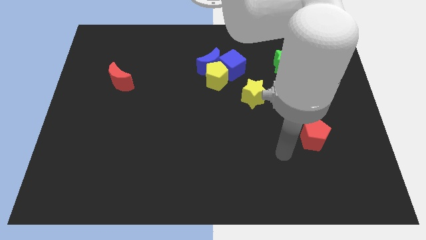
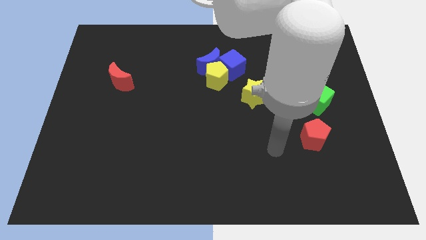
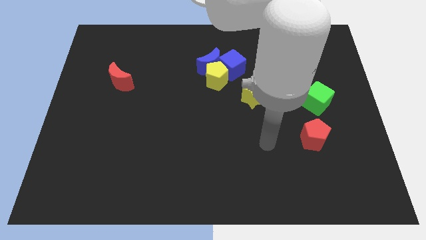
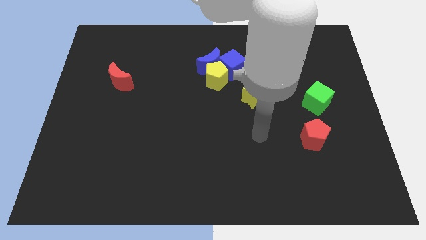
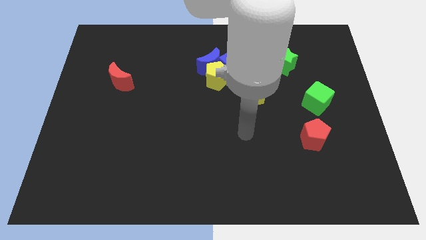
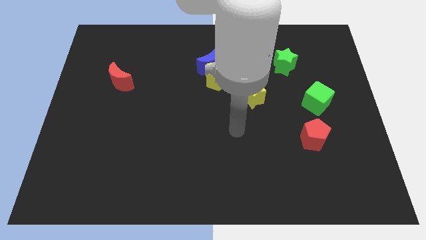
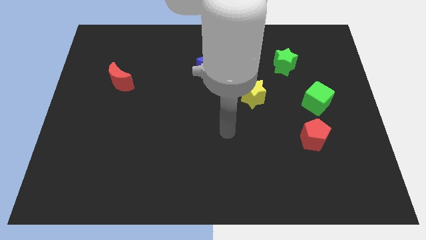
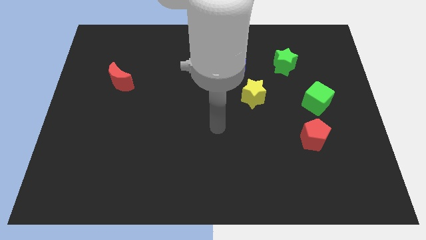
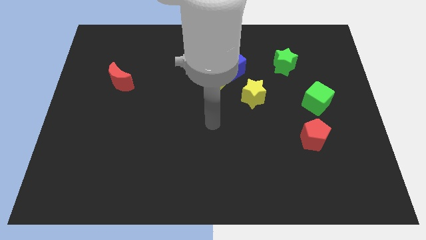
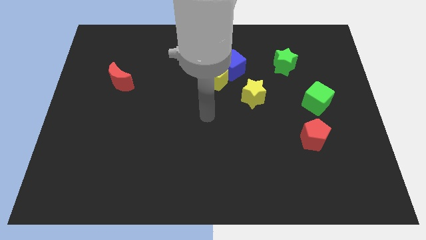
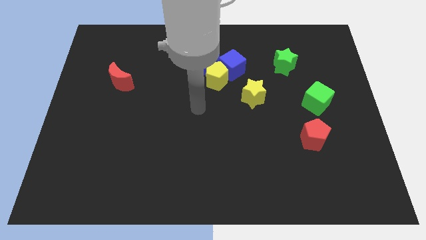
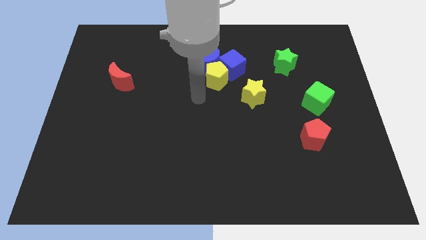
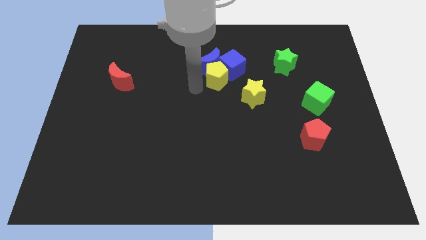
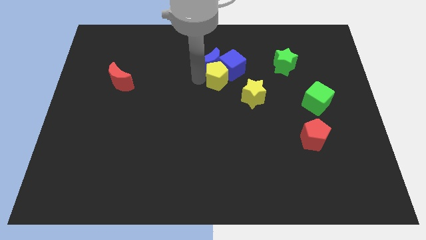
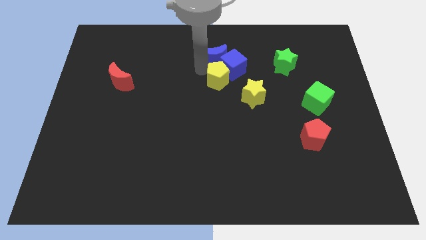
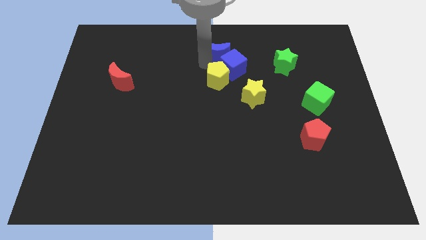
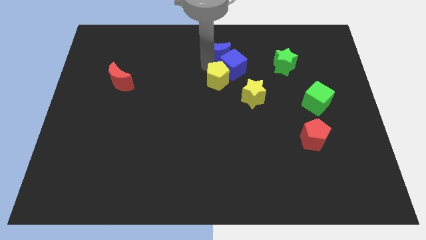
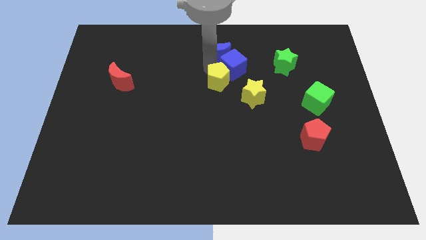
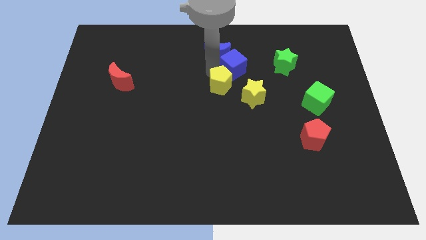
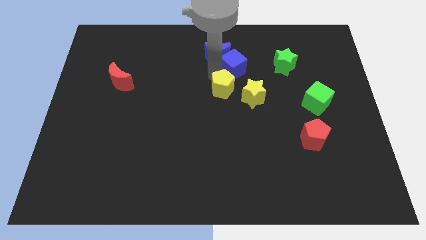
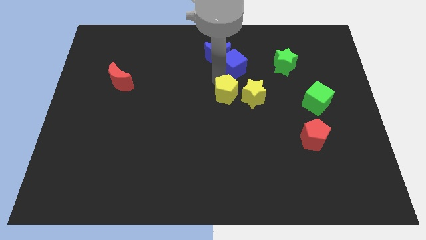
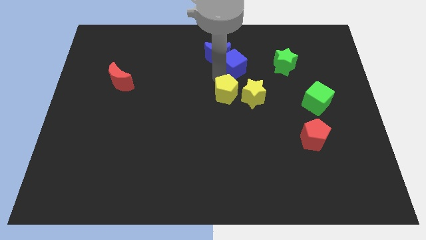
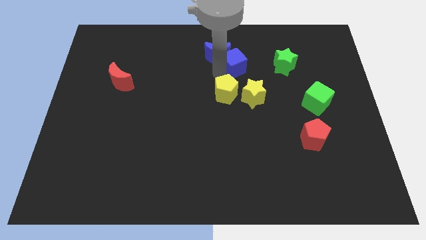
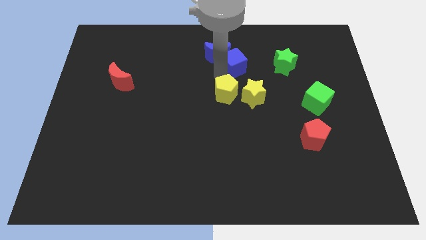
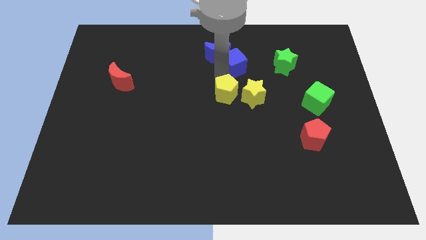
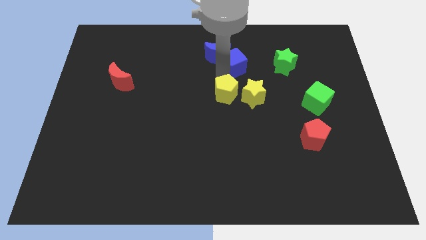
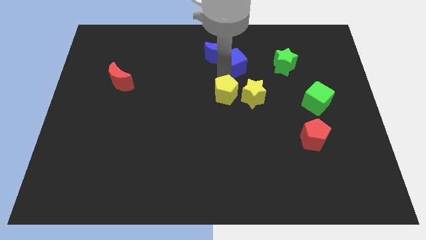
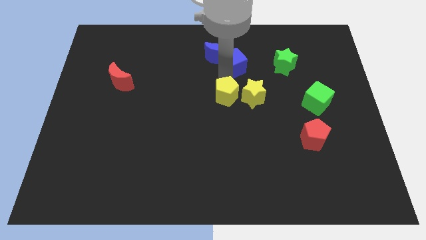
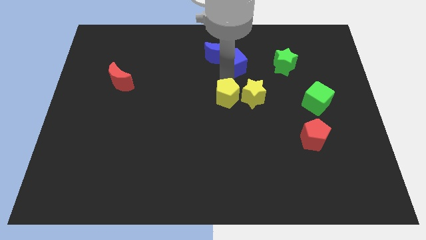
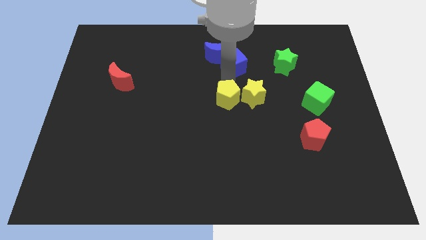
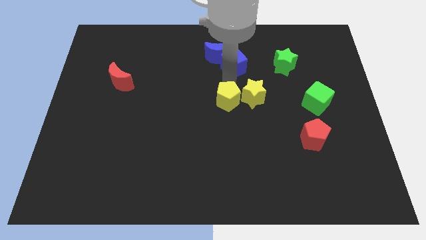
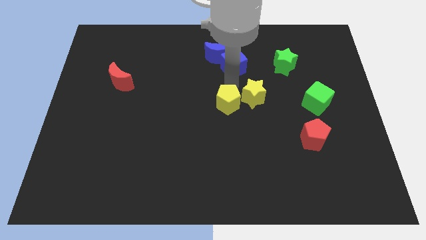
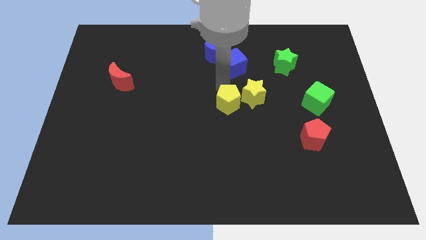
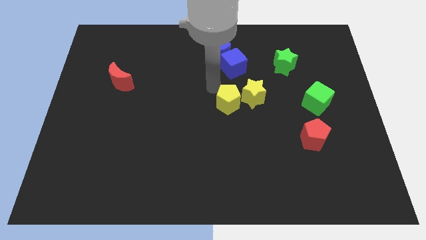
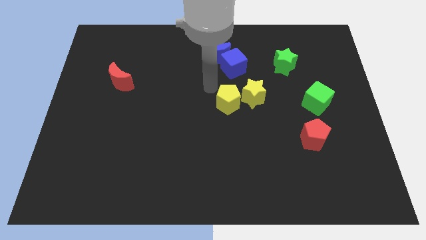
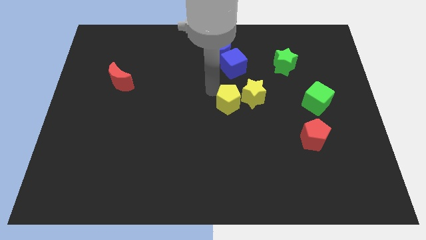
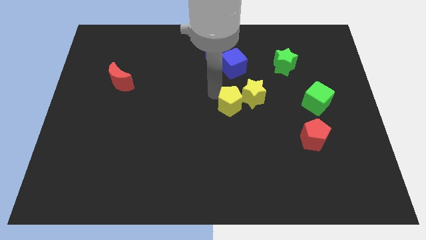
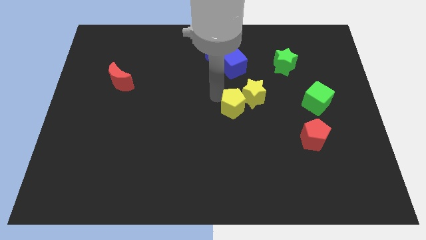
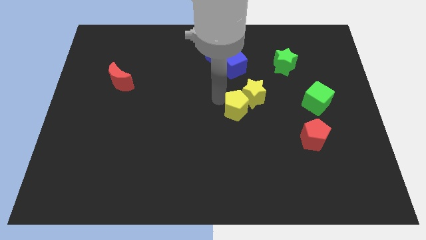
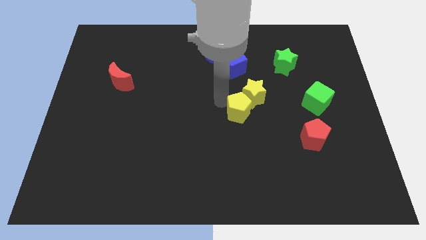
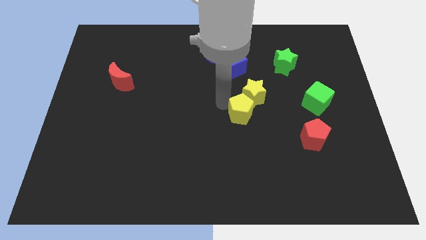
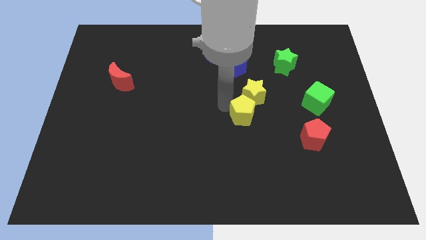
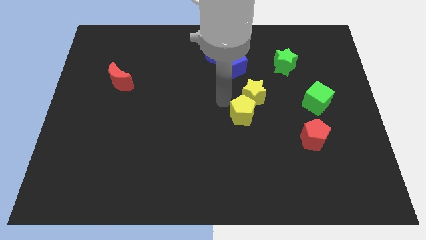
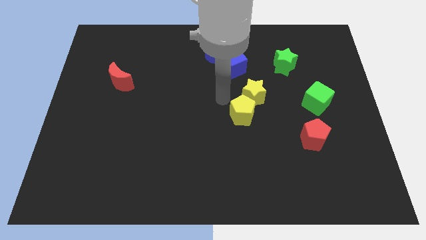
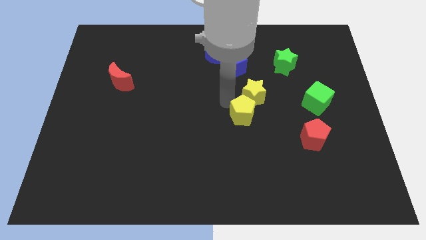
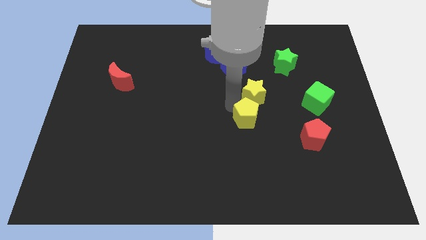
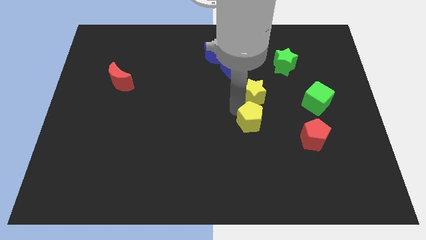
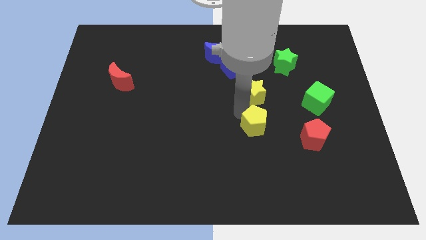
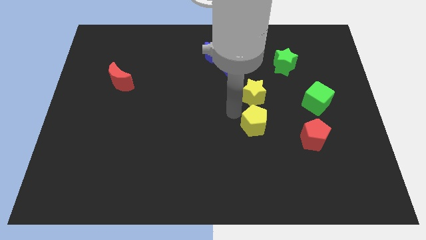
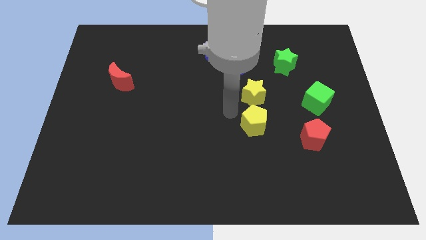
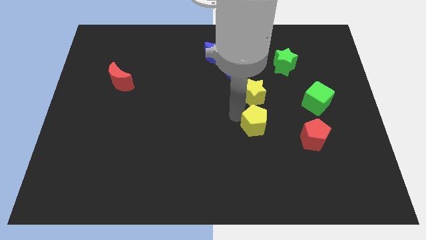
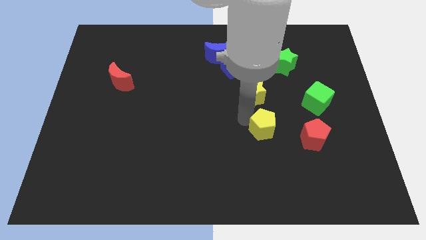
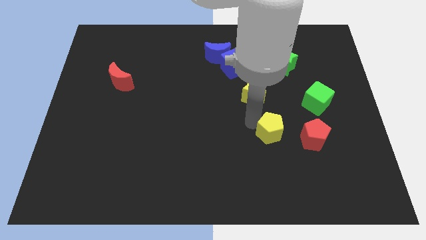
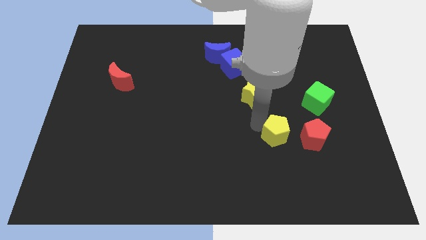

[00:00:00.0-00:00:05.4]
push the yellow pentagon downwards and to the right

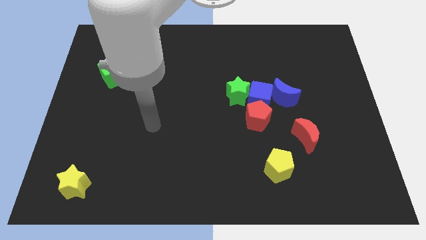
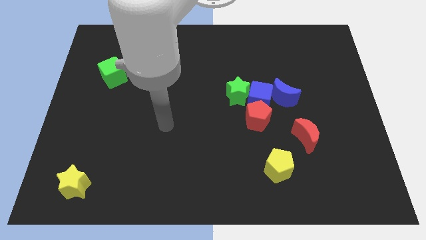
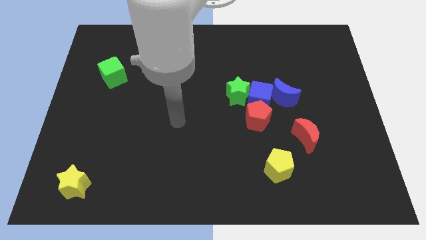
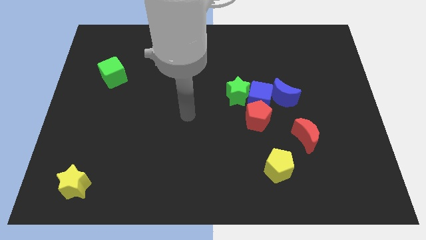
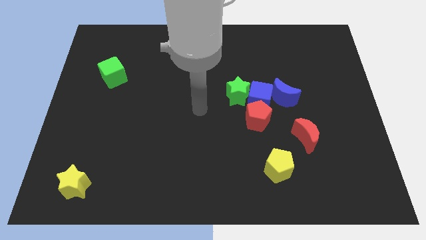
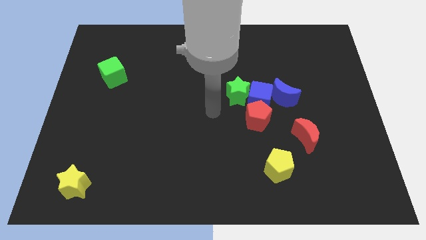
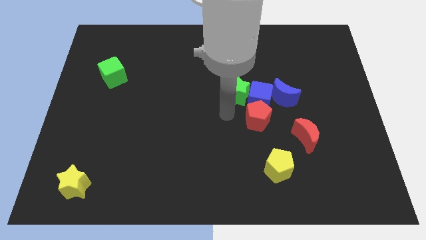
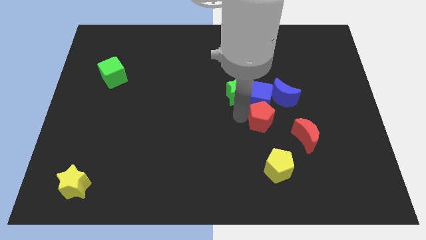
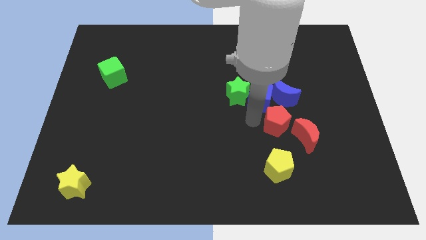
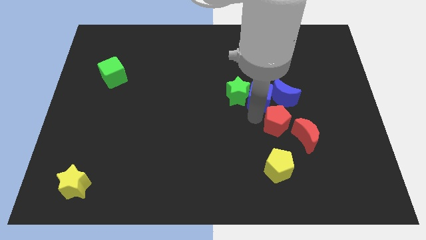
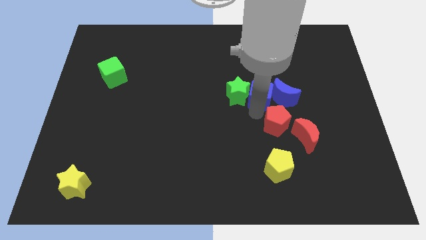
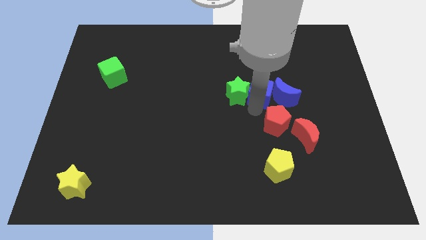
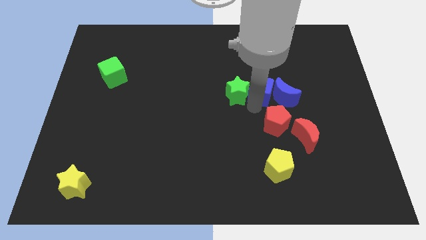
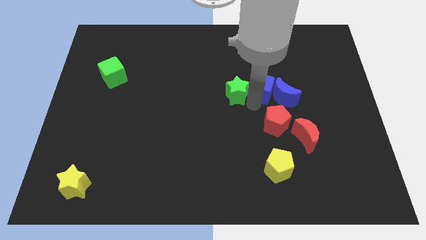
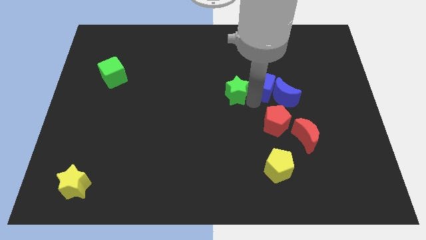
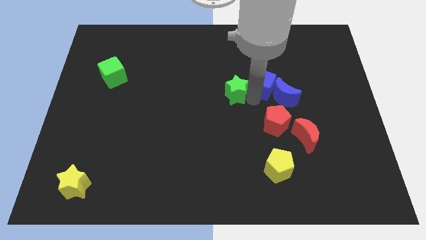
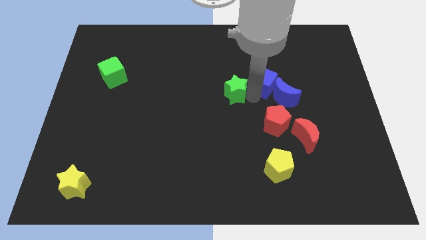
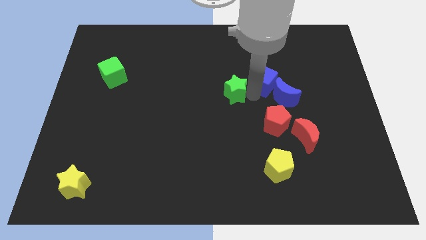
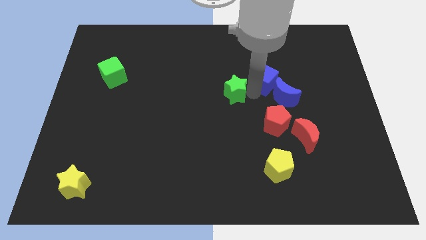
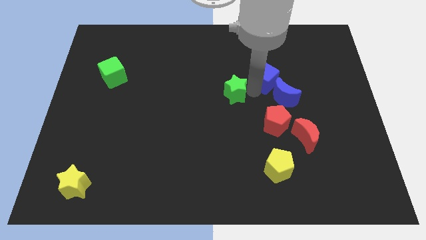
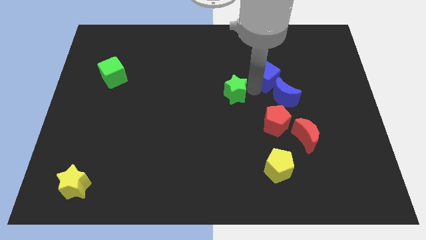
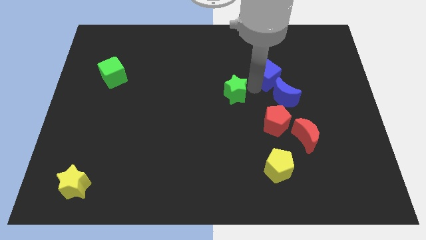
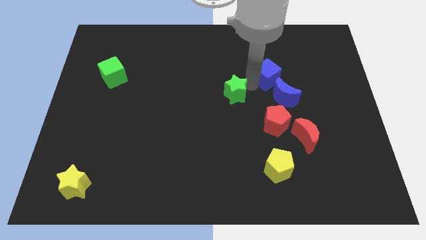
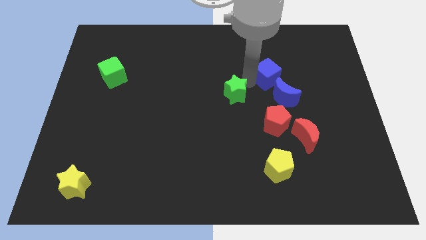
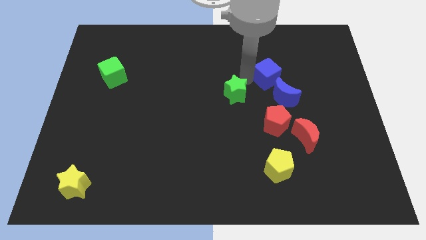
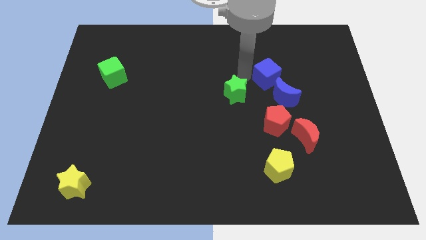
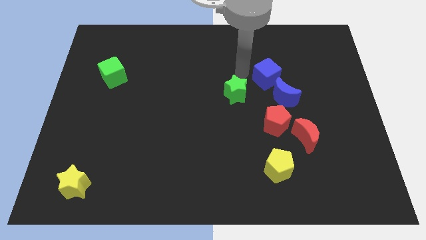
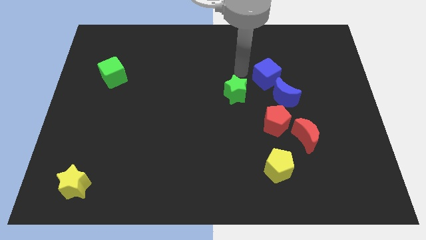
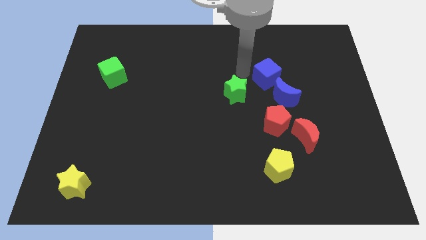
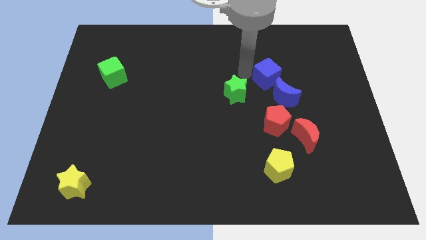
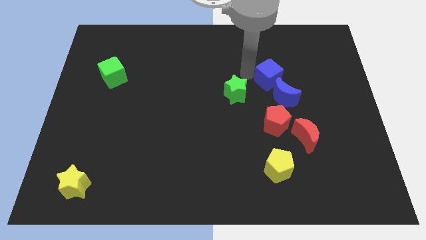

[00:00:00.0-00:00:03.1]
slightly slide the blue cube upwards and right diagonally
